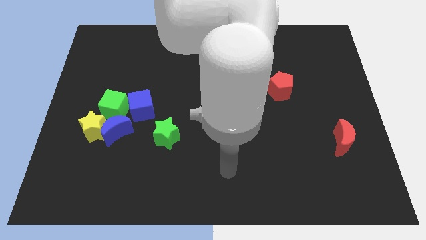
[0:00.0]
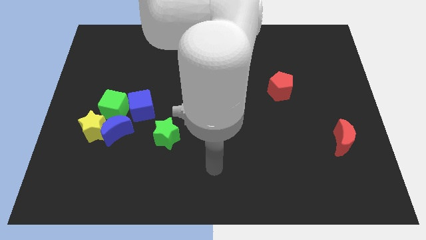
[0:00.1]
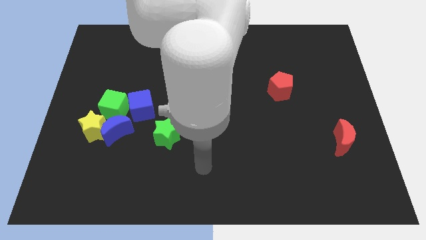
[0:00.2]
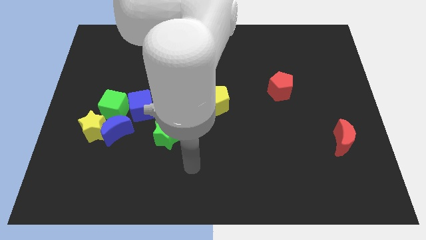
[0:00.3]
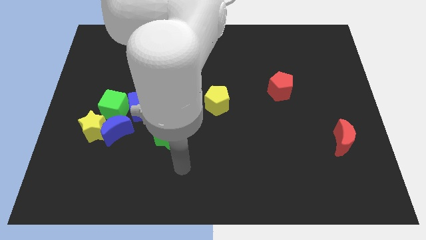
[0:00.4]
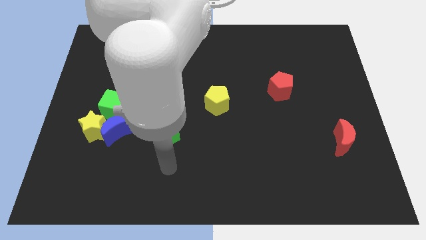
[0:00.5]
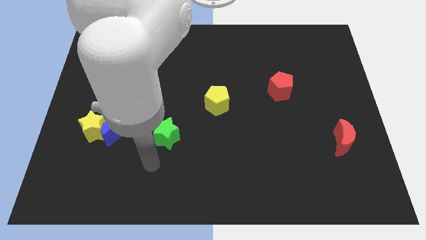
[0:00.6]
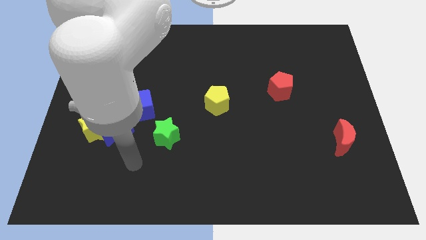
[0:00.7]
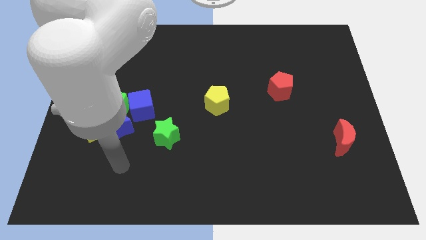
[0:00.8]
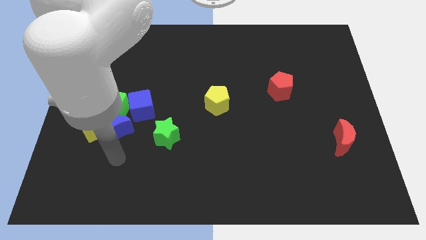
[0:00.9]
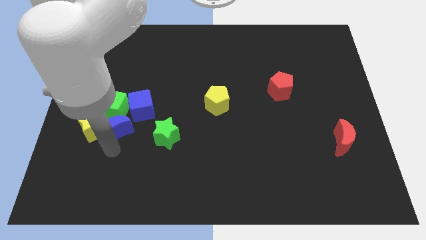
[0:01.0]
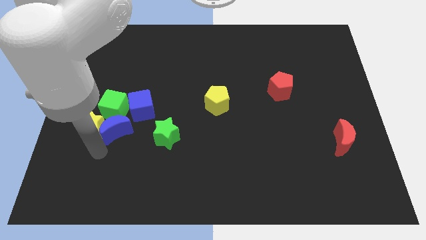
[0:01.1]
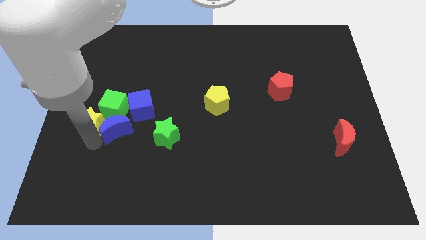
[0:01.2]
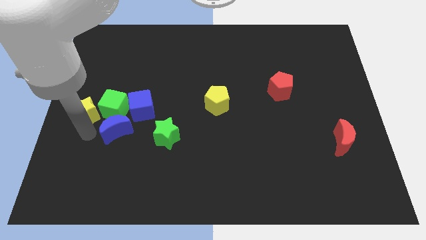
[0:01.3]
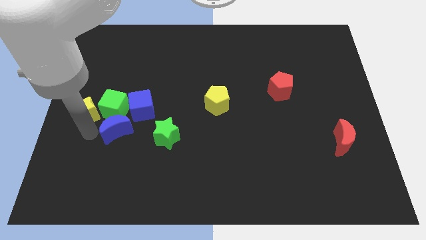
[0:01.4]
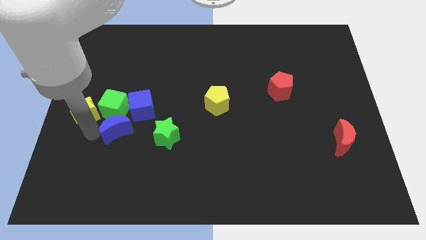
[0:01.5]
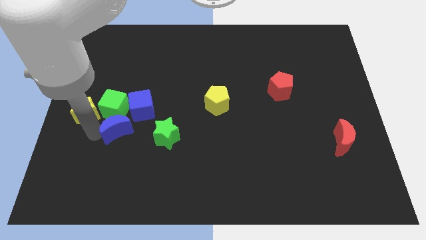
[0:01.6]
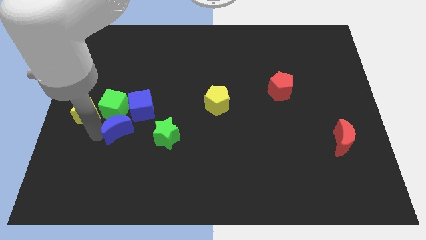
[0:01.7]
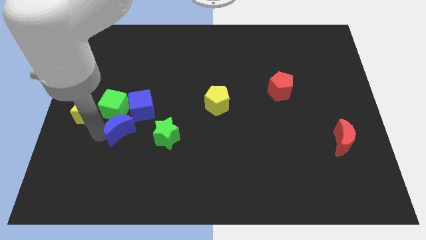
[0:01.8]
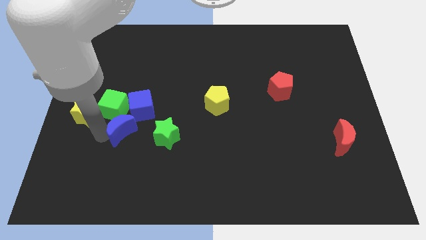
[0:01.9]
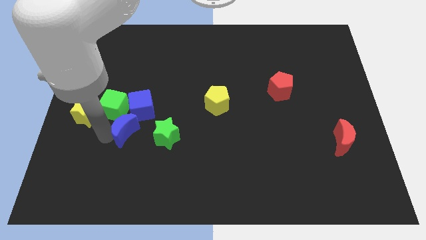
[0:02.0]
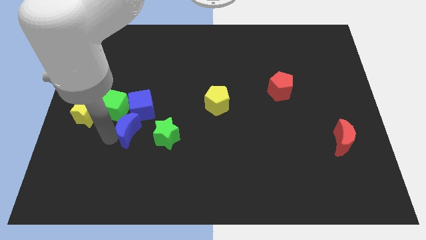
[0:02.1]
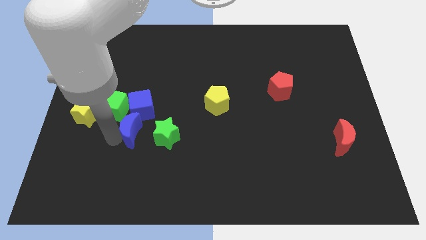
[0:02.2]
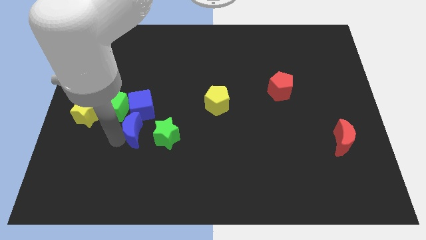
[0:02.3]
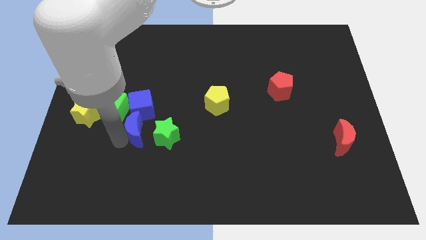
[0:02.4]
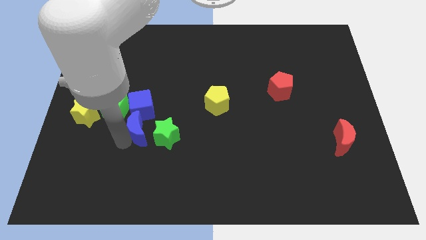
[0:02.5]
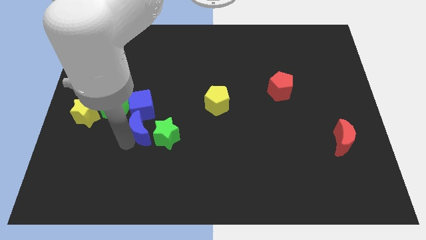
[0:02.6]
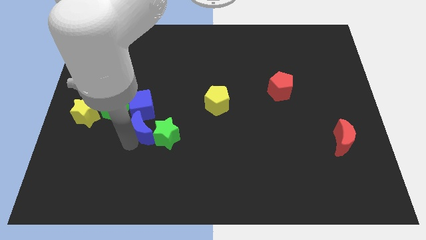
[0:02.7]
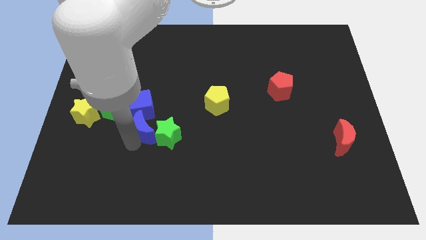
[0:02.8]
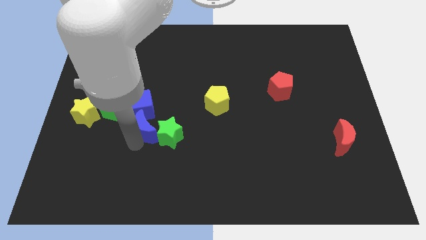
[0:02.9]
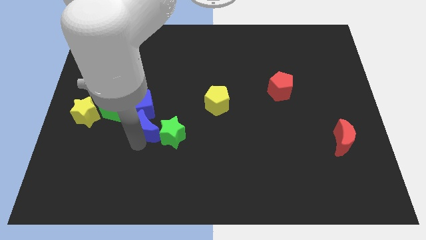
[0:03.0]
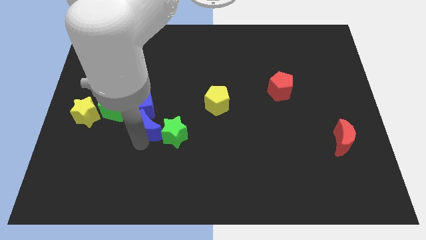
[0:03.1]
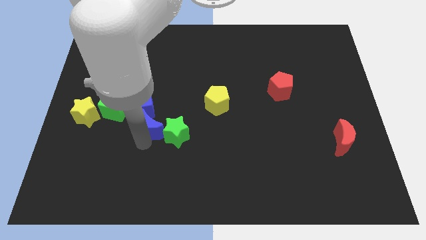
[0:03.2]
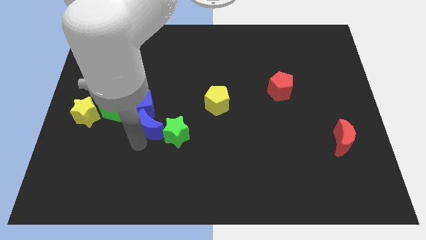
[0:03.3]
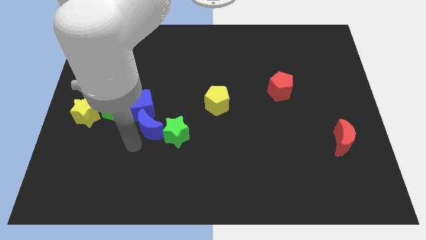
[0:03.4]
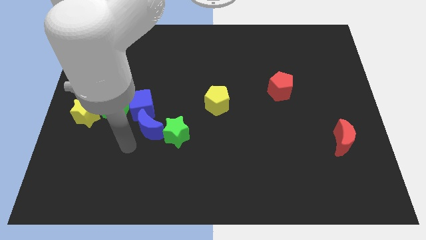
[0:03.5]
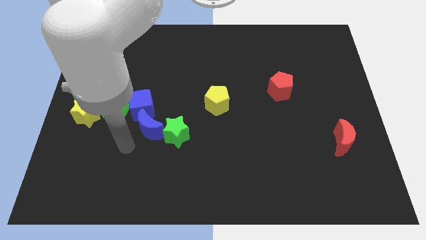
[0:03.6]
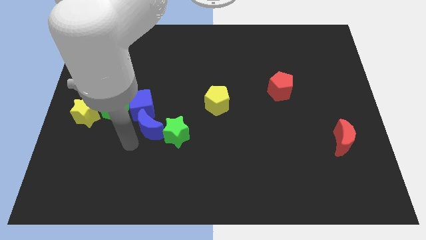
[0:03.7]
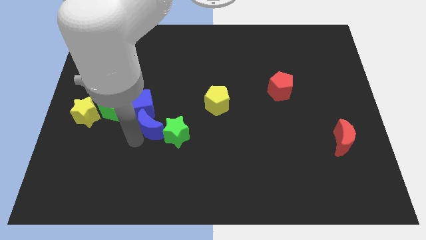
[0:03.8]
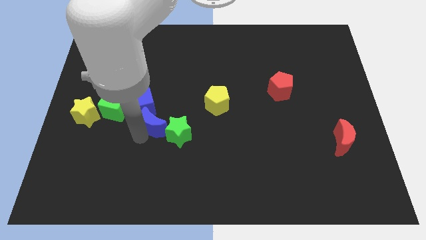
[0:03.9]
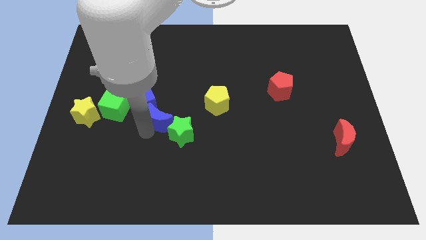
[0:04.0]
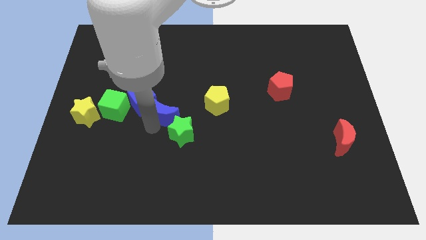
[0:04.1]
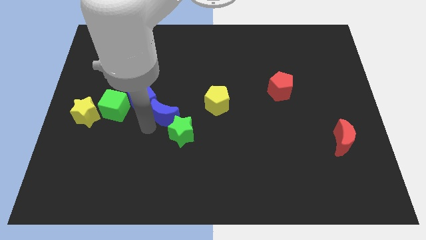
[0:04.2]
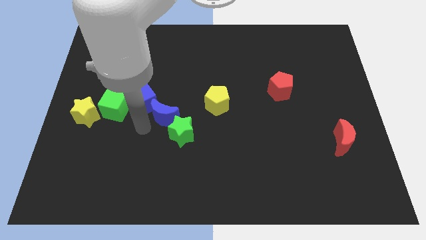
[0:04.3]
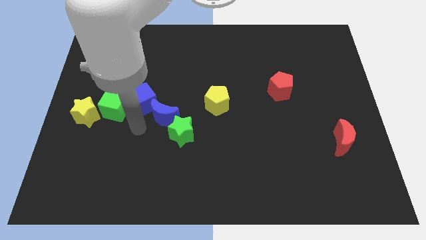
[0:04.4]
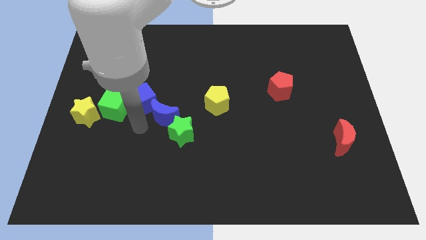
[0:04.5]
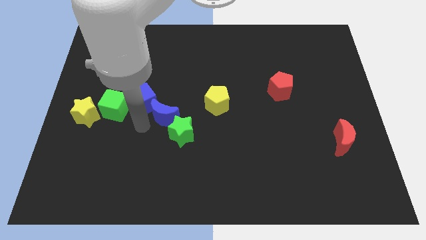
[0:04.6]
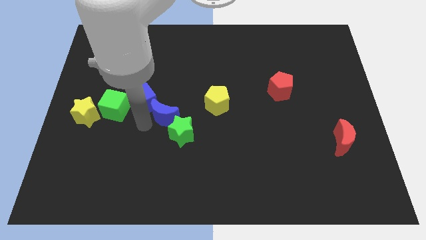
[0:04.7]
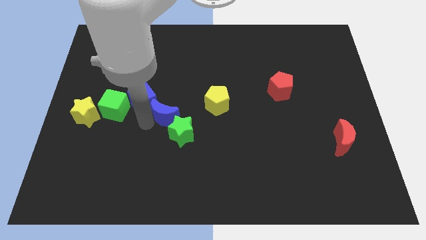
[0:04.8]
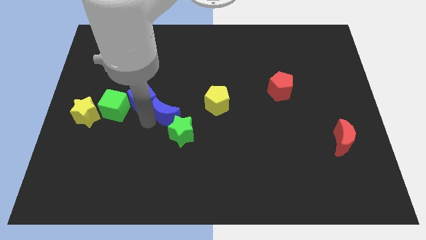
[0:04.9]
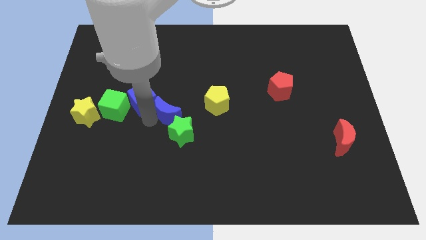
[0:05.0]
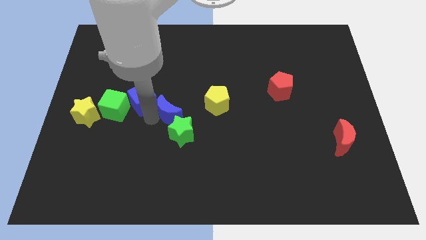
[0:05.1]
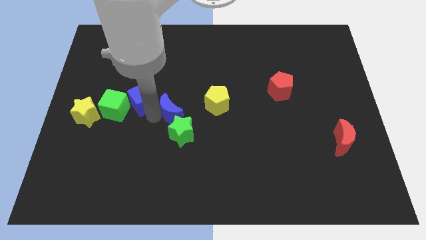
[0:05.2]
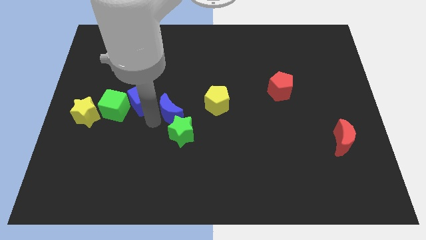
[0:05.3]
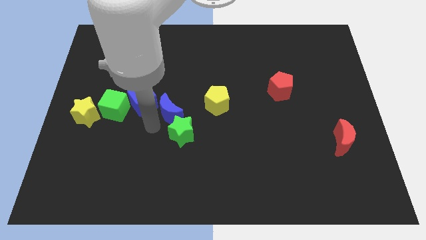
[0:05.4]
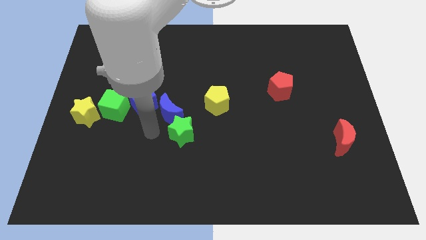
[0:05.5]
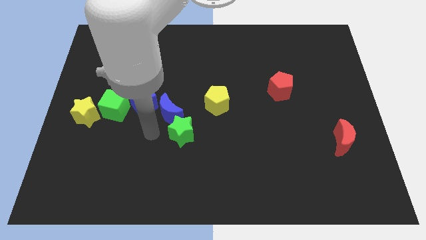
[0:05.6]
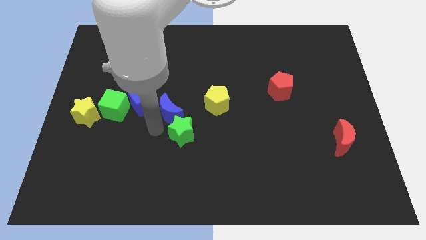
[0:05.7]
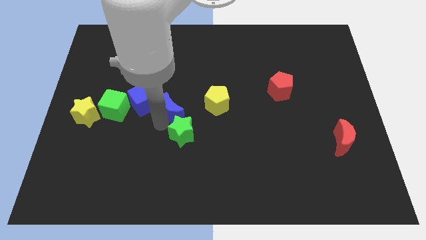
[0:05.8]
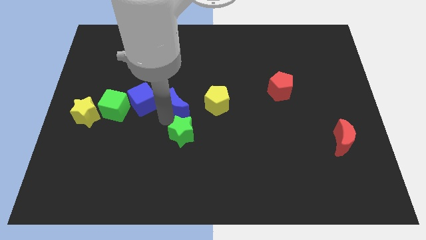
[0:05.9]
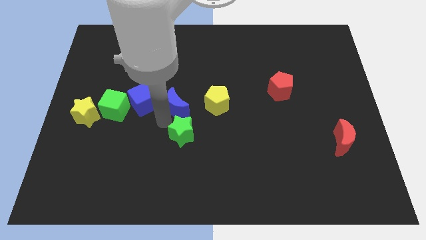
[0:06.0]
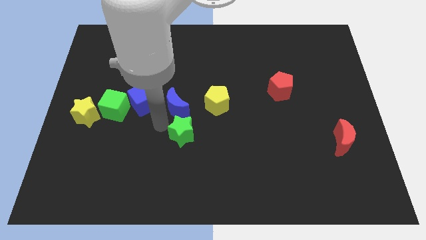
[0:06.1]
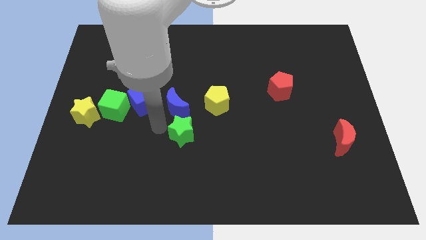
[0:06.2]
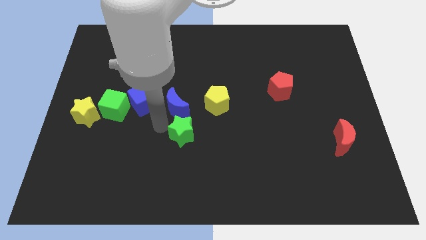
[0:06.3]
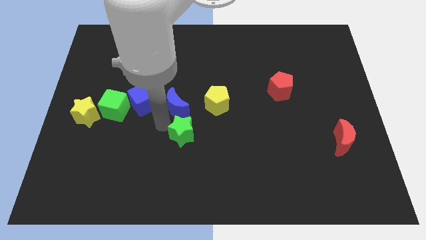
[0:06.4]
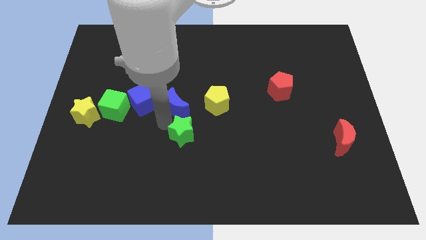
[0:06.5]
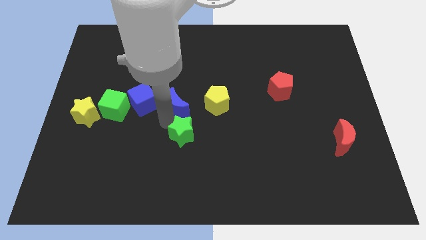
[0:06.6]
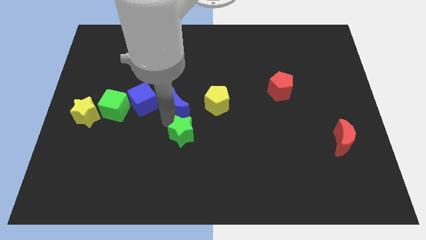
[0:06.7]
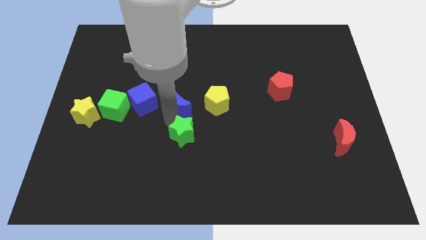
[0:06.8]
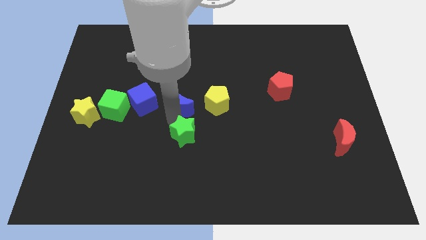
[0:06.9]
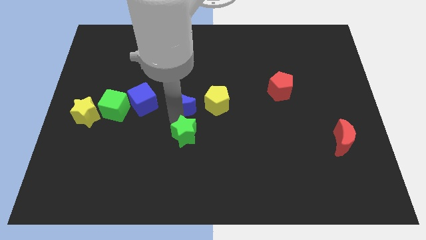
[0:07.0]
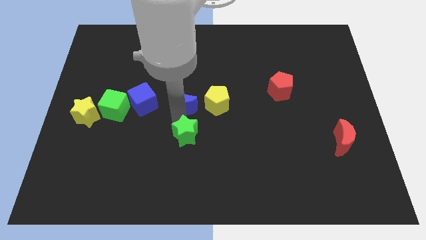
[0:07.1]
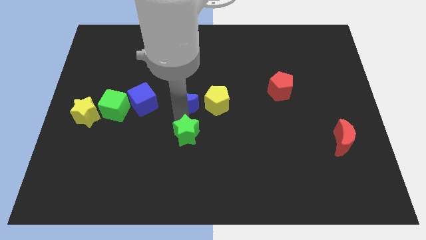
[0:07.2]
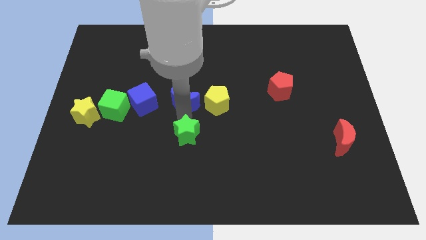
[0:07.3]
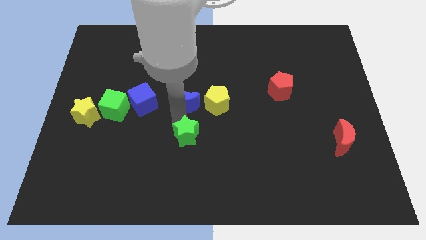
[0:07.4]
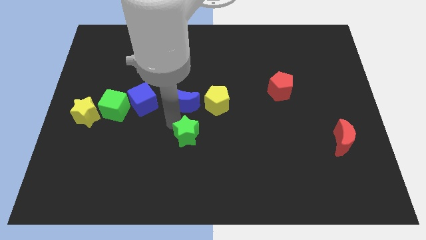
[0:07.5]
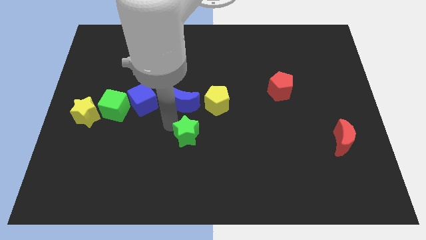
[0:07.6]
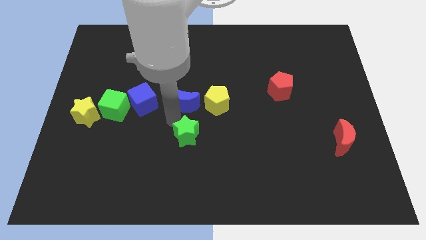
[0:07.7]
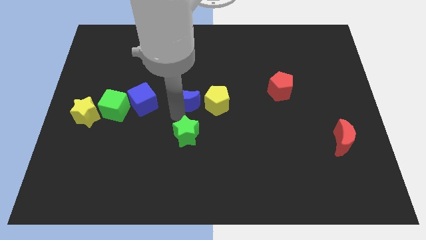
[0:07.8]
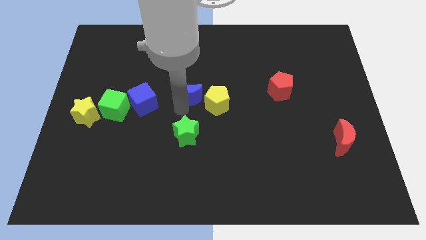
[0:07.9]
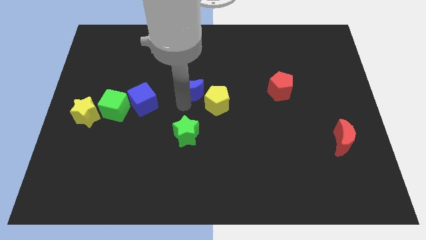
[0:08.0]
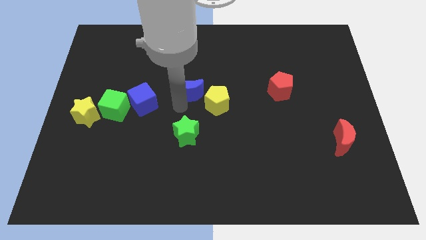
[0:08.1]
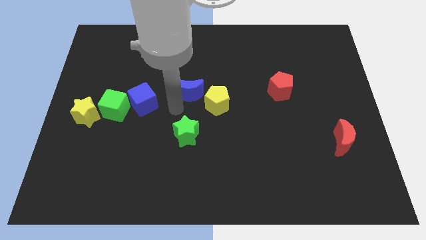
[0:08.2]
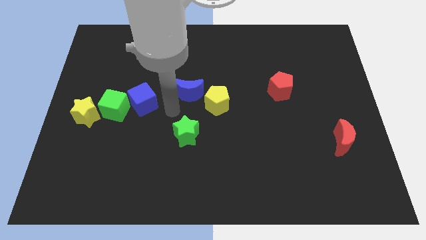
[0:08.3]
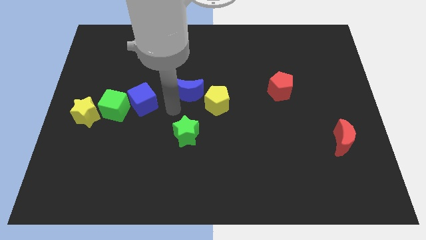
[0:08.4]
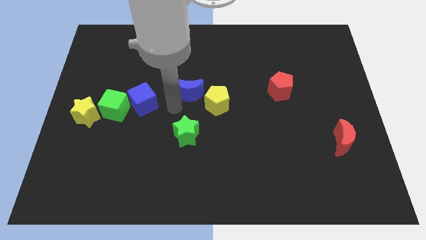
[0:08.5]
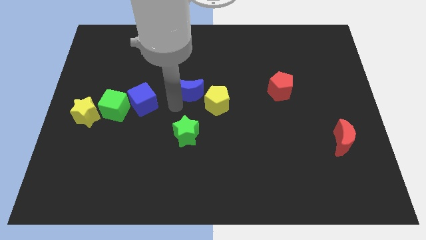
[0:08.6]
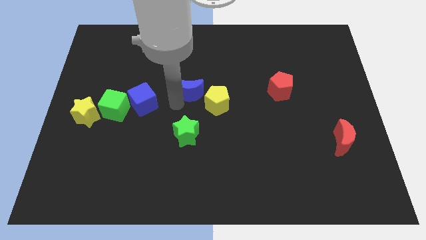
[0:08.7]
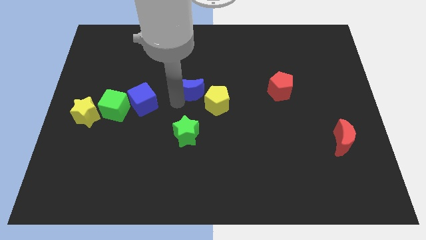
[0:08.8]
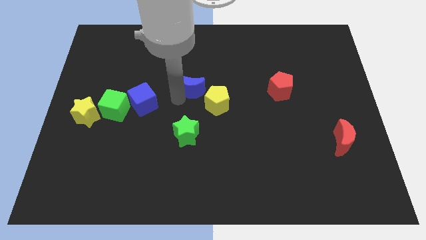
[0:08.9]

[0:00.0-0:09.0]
slide the blue moon up and then right
